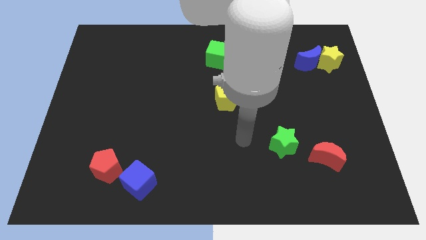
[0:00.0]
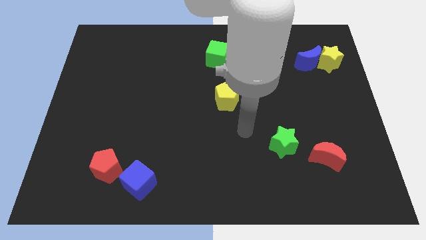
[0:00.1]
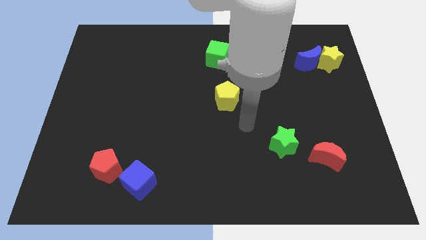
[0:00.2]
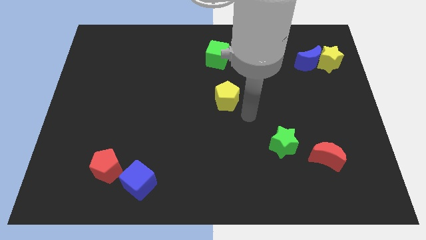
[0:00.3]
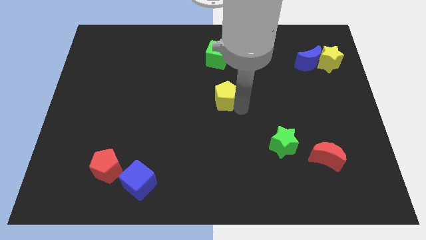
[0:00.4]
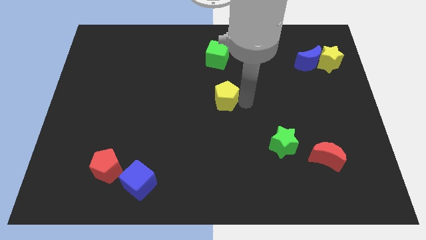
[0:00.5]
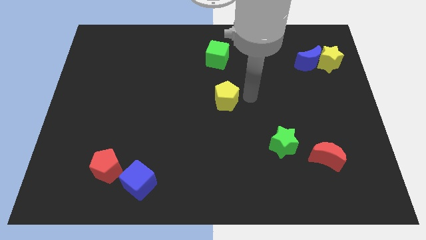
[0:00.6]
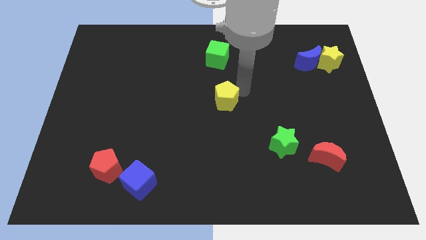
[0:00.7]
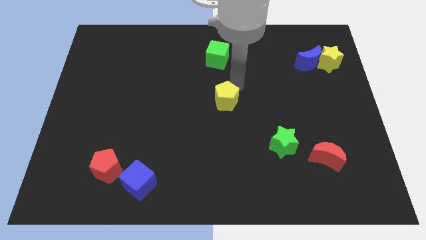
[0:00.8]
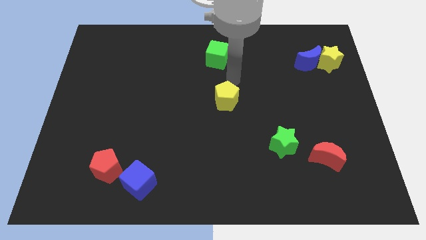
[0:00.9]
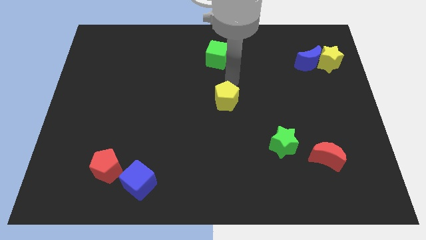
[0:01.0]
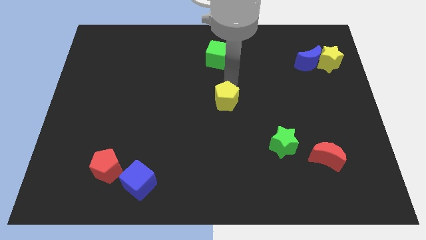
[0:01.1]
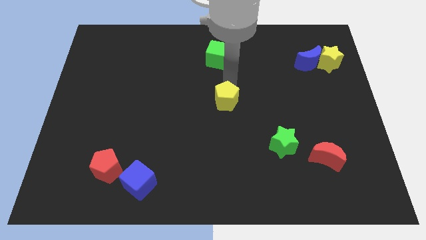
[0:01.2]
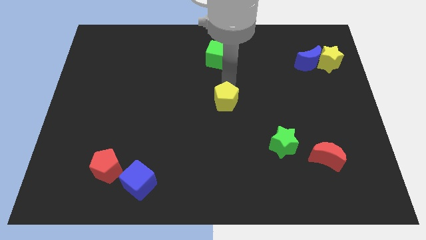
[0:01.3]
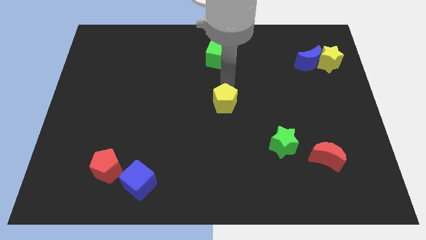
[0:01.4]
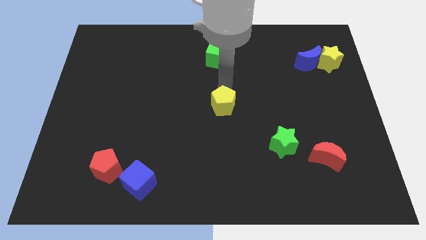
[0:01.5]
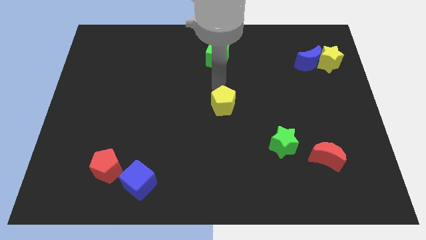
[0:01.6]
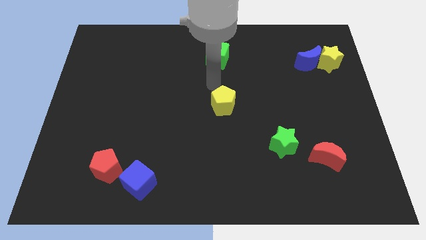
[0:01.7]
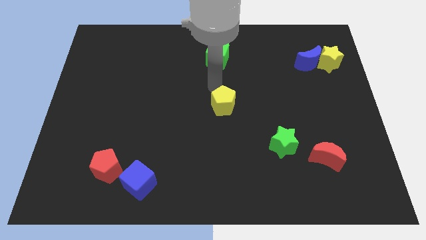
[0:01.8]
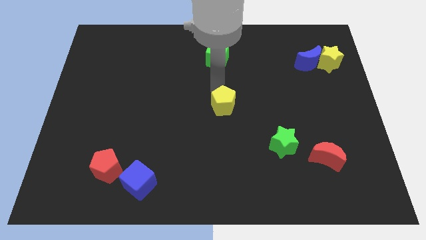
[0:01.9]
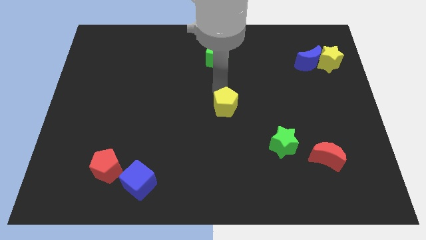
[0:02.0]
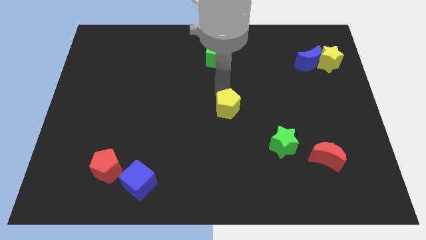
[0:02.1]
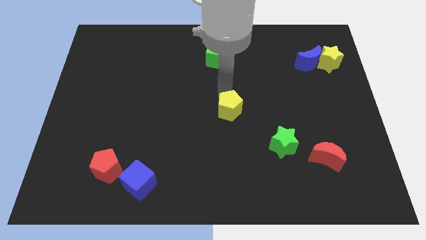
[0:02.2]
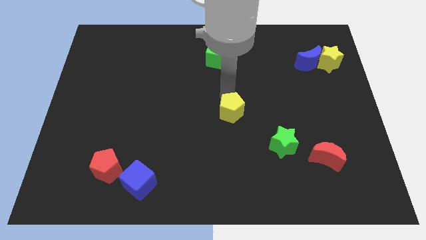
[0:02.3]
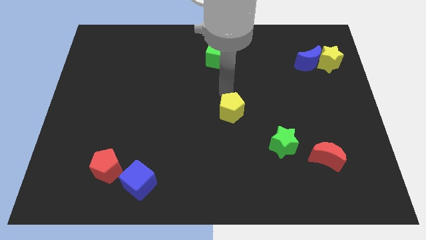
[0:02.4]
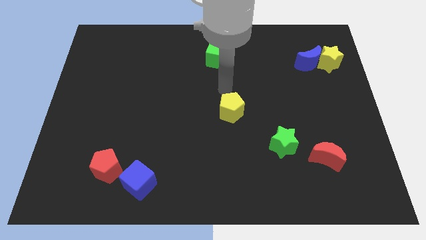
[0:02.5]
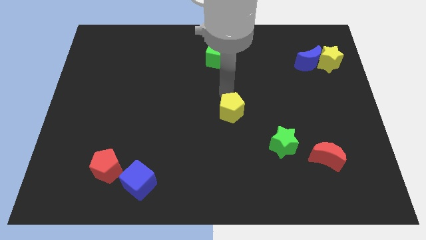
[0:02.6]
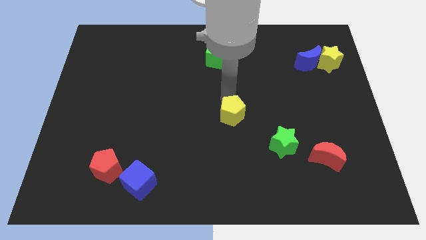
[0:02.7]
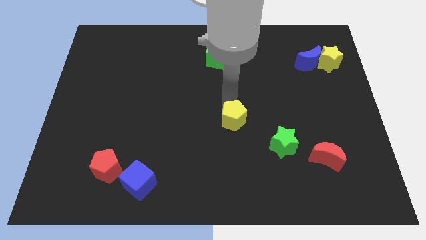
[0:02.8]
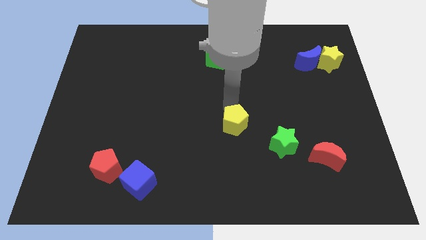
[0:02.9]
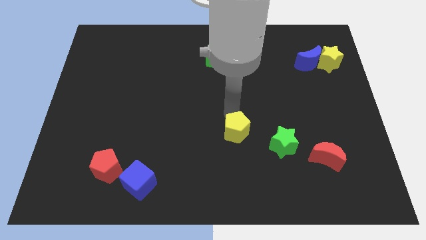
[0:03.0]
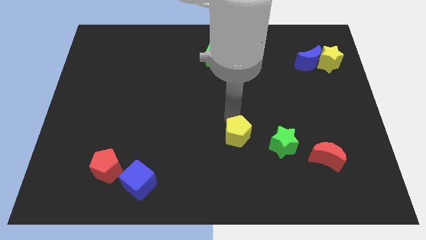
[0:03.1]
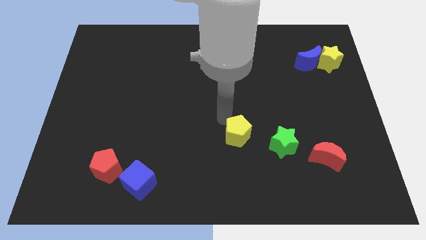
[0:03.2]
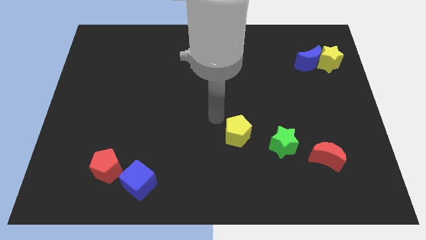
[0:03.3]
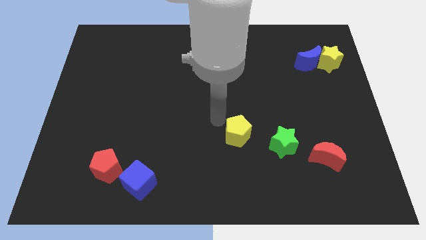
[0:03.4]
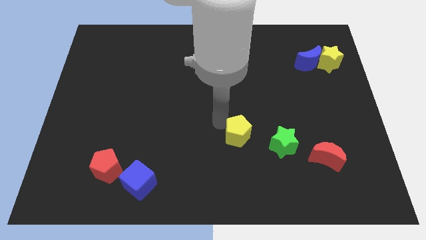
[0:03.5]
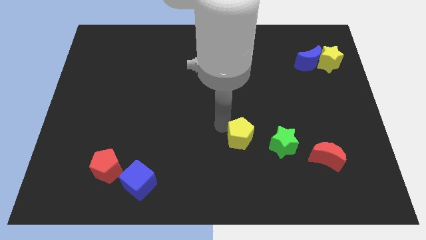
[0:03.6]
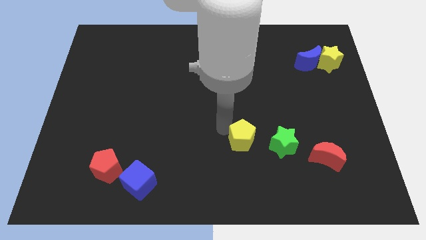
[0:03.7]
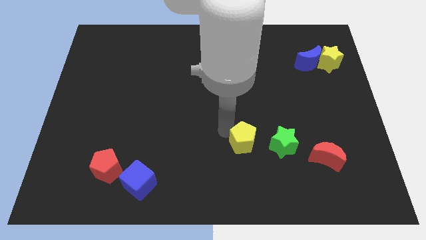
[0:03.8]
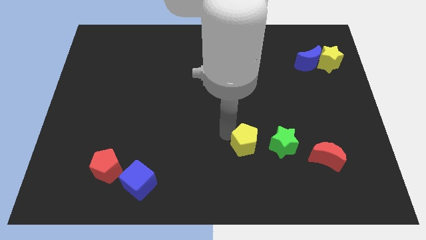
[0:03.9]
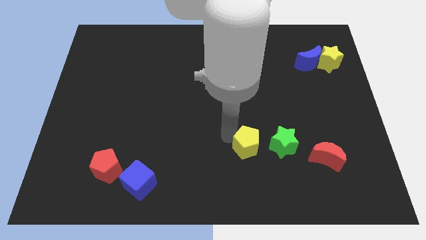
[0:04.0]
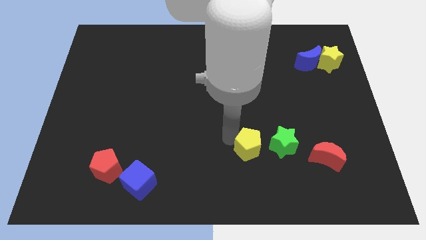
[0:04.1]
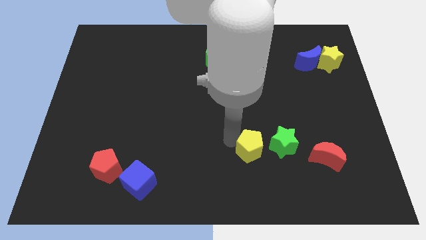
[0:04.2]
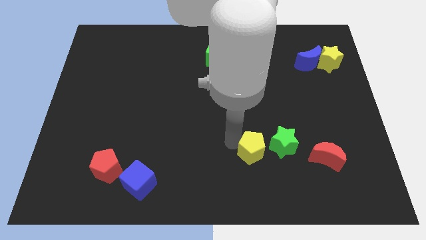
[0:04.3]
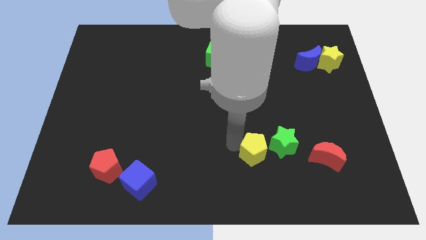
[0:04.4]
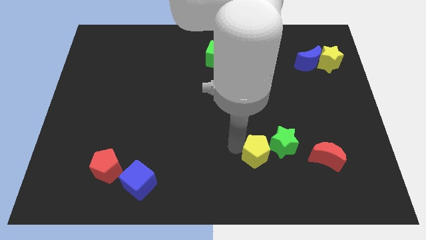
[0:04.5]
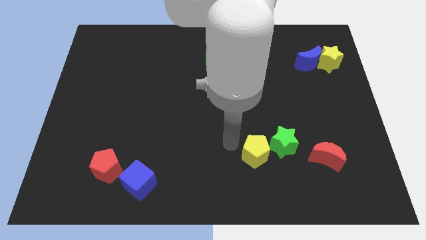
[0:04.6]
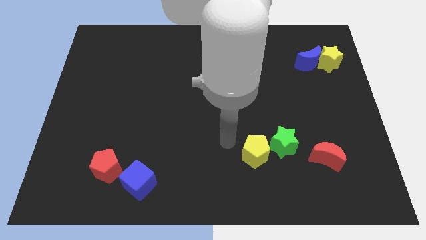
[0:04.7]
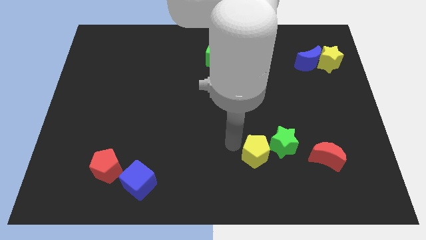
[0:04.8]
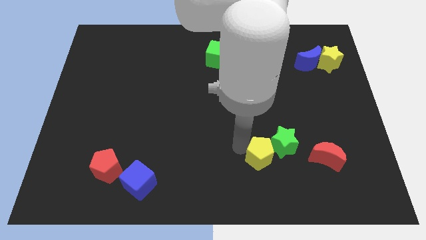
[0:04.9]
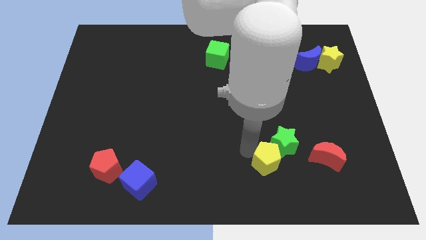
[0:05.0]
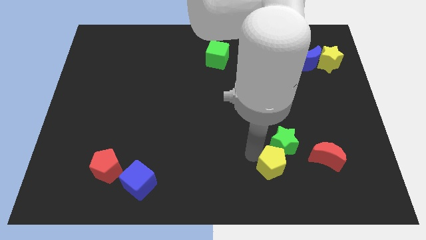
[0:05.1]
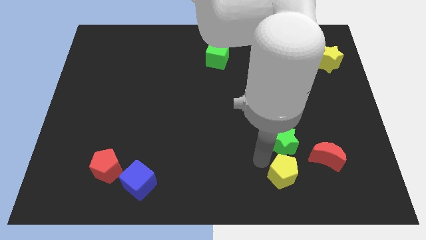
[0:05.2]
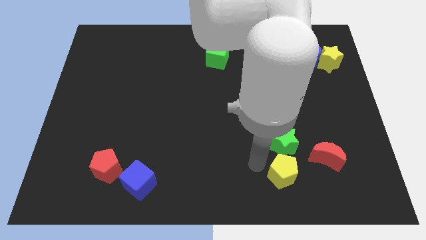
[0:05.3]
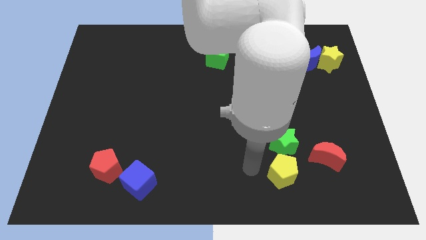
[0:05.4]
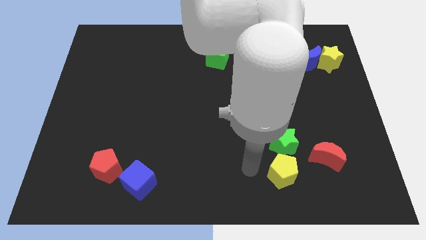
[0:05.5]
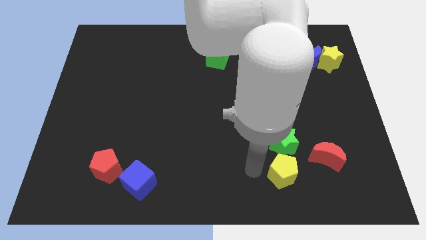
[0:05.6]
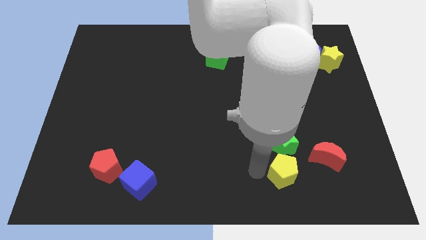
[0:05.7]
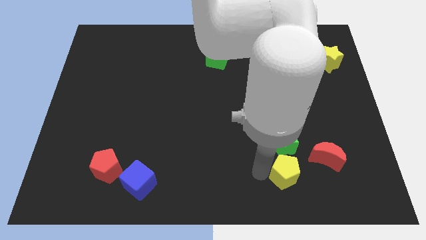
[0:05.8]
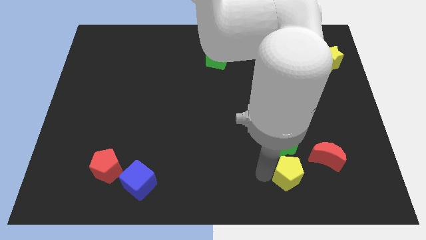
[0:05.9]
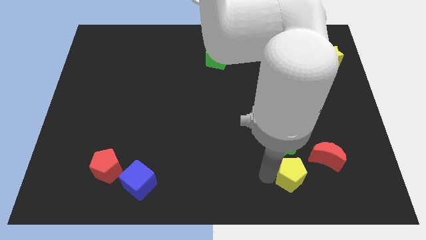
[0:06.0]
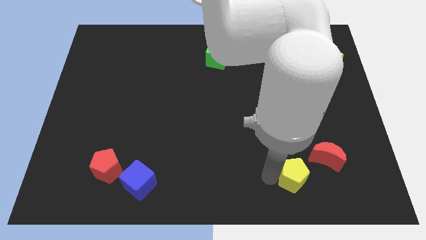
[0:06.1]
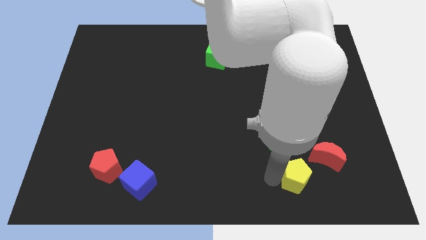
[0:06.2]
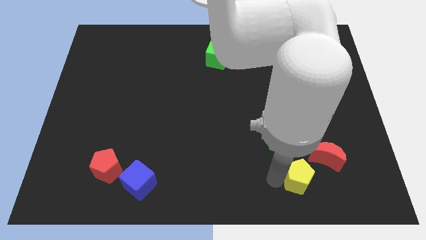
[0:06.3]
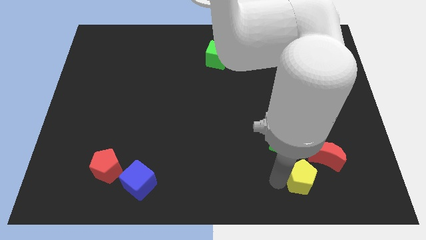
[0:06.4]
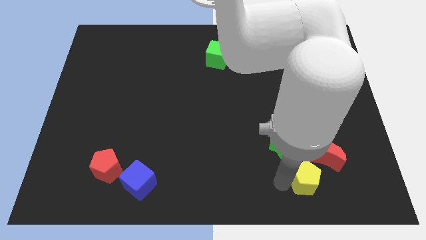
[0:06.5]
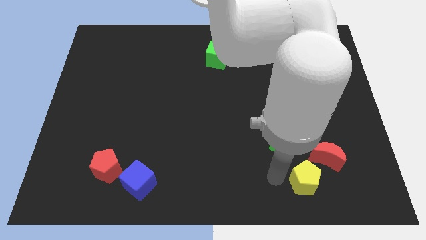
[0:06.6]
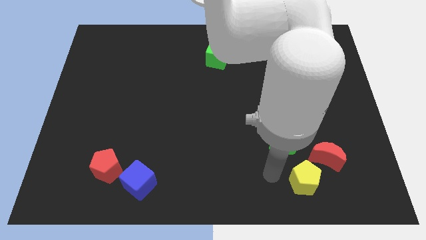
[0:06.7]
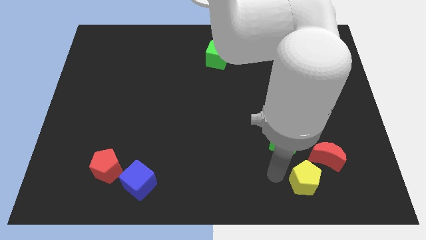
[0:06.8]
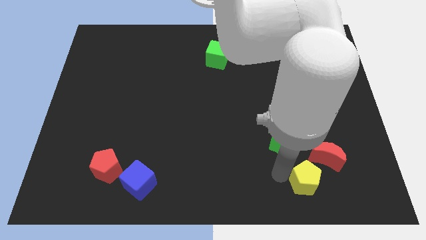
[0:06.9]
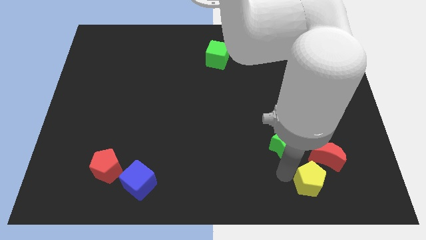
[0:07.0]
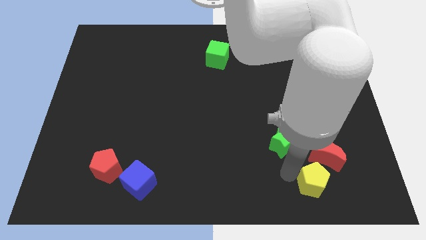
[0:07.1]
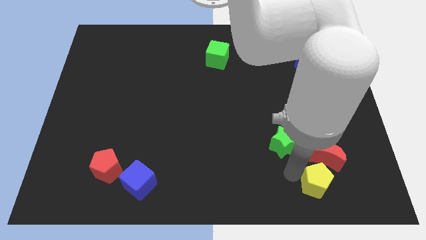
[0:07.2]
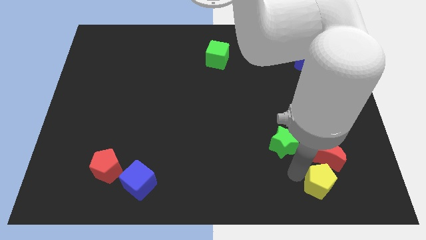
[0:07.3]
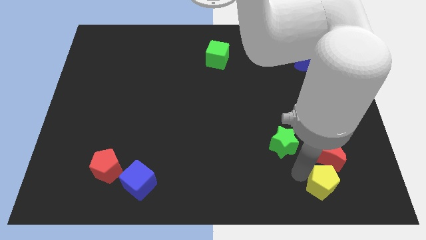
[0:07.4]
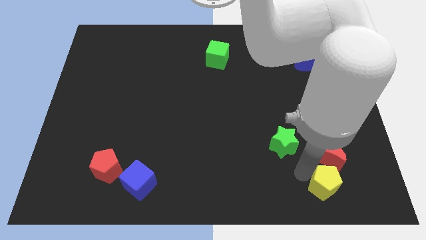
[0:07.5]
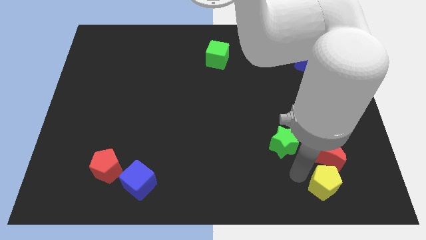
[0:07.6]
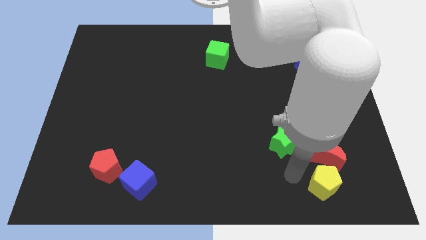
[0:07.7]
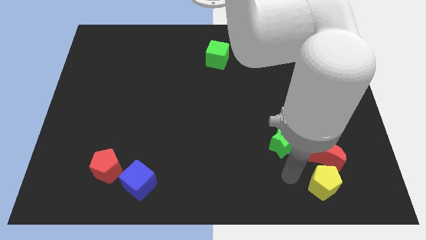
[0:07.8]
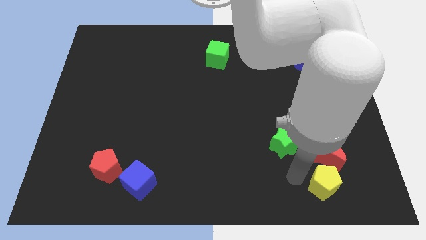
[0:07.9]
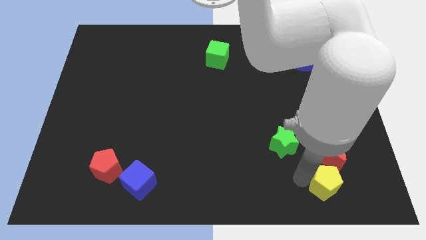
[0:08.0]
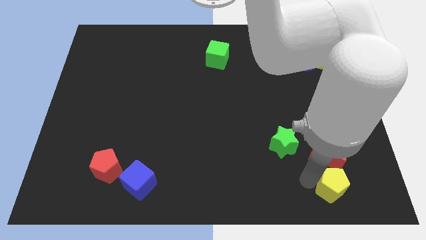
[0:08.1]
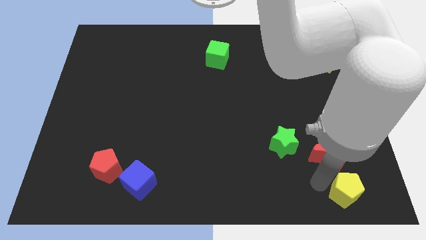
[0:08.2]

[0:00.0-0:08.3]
push the yellow pentagon to the bottom right corner
